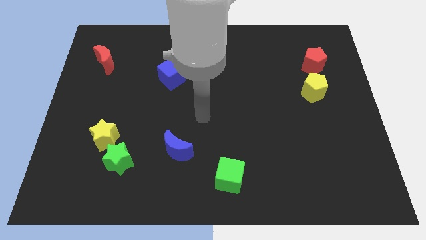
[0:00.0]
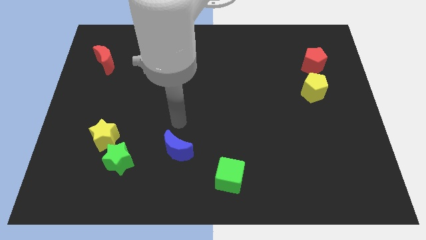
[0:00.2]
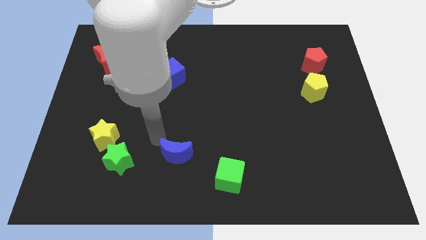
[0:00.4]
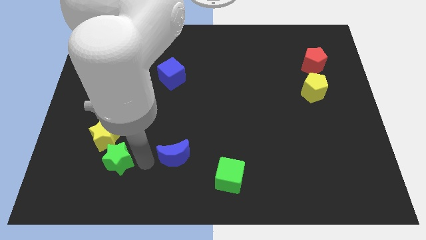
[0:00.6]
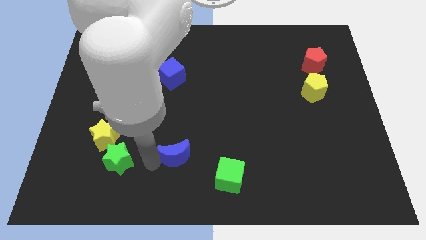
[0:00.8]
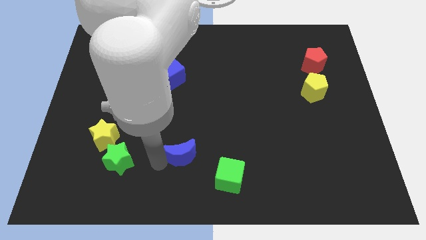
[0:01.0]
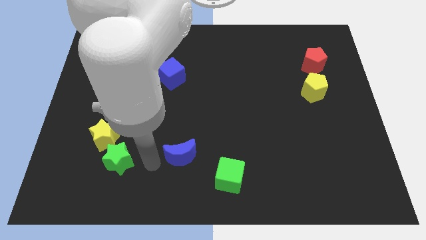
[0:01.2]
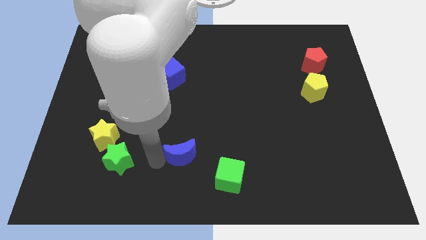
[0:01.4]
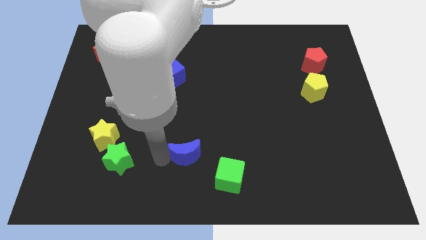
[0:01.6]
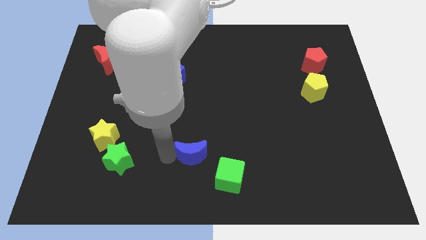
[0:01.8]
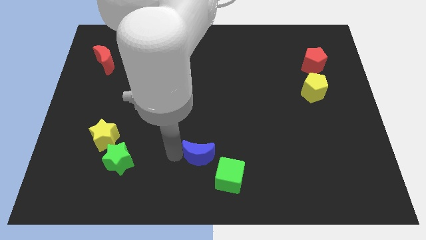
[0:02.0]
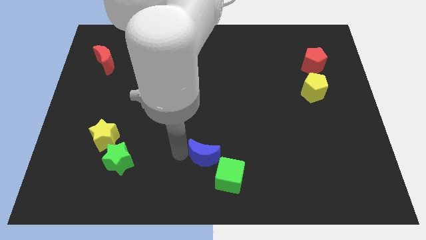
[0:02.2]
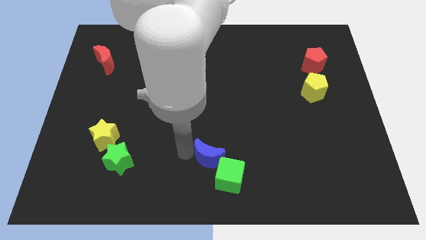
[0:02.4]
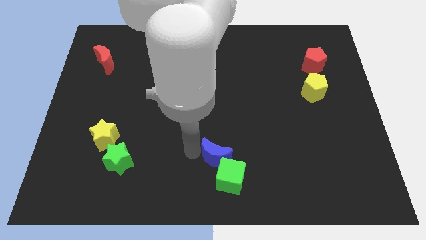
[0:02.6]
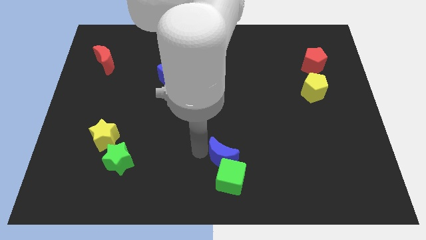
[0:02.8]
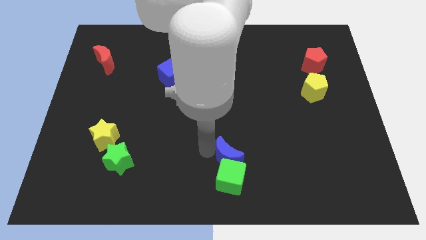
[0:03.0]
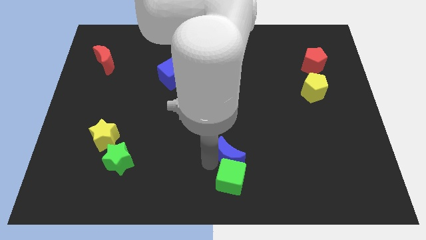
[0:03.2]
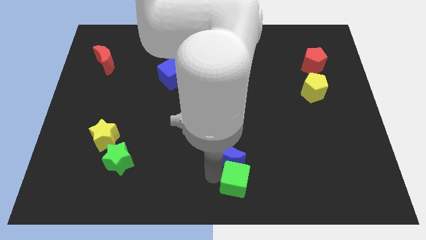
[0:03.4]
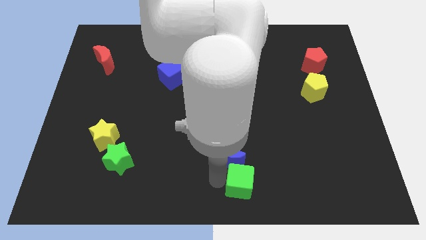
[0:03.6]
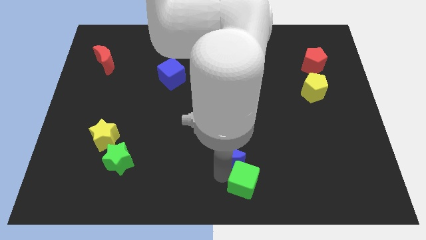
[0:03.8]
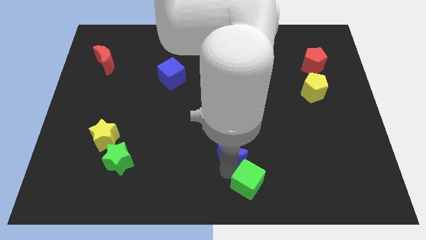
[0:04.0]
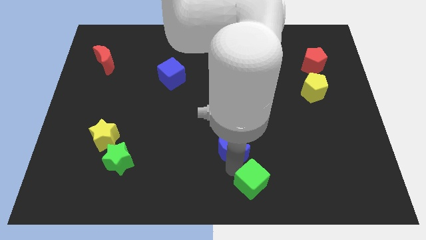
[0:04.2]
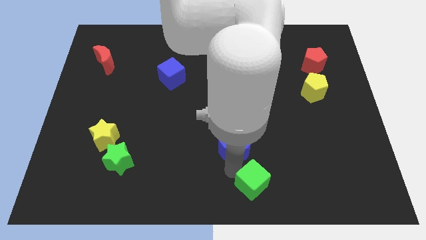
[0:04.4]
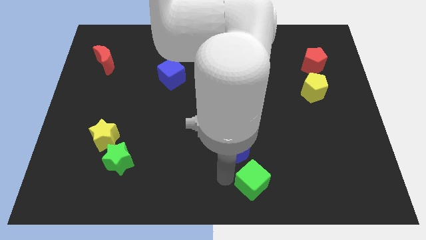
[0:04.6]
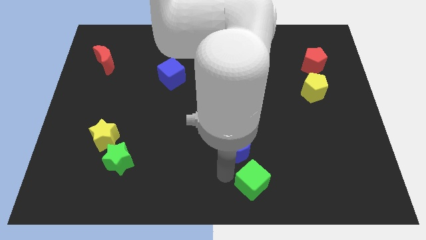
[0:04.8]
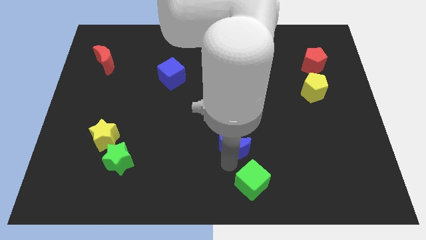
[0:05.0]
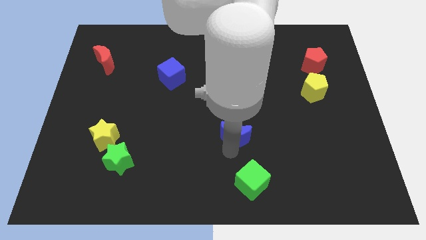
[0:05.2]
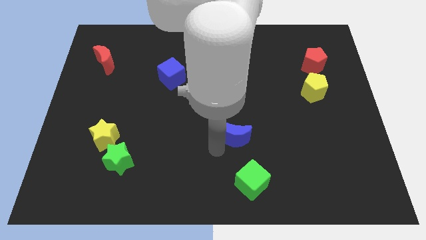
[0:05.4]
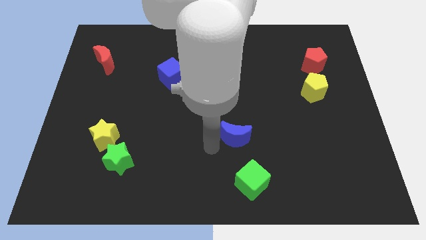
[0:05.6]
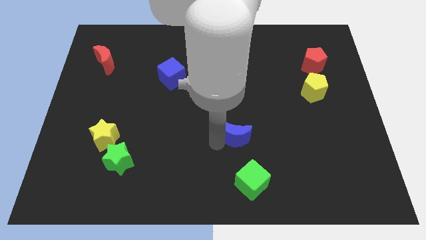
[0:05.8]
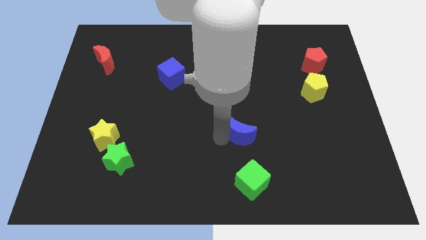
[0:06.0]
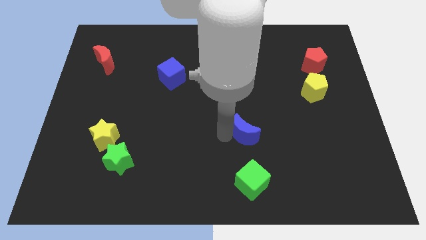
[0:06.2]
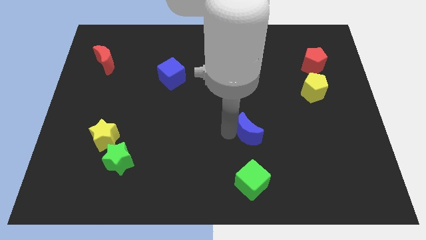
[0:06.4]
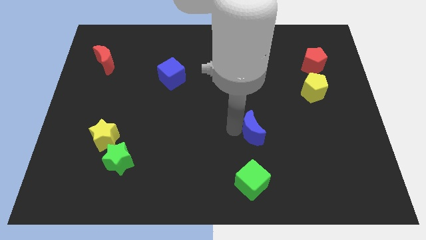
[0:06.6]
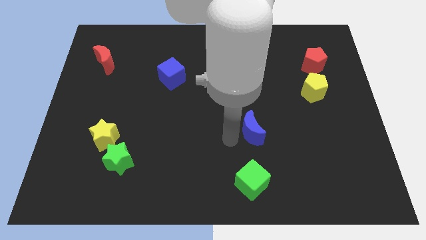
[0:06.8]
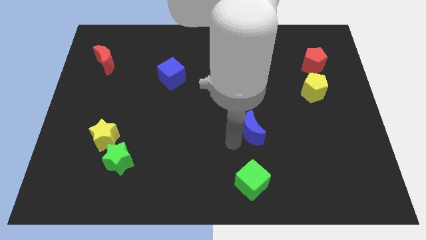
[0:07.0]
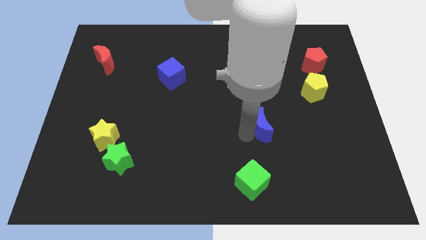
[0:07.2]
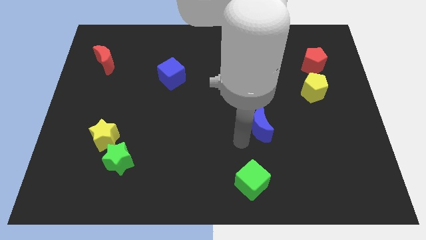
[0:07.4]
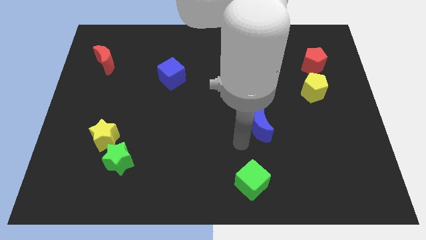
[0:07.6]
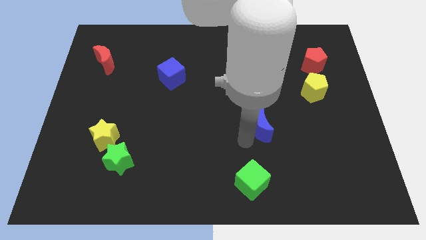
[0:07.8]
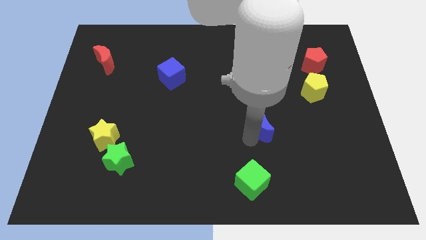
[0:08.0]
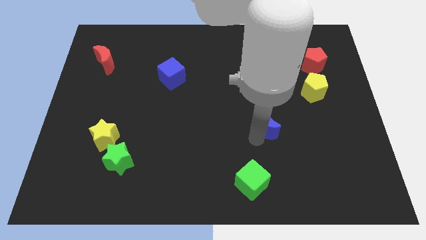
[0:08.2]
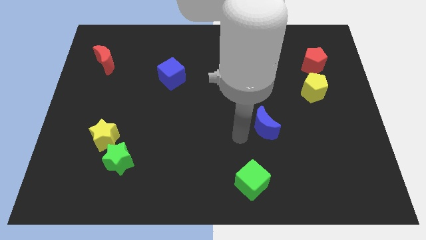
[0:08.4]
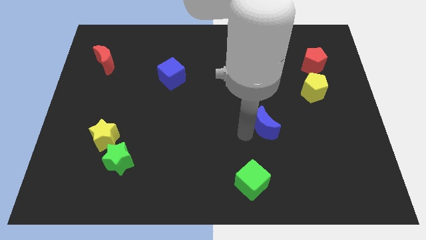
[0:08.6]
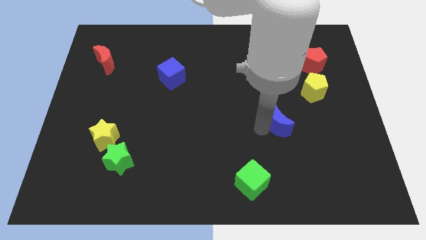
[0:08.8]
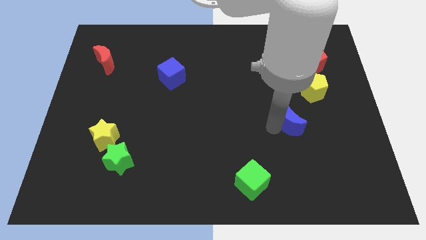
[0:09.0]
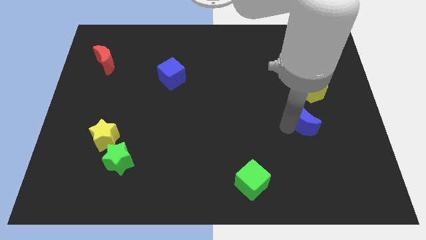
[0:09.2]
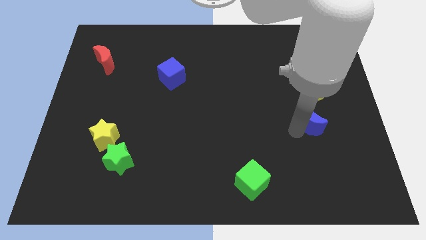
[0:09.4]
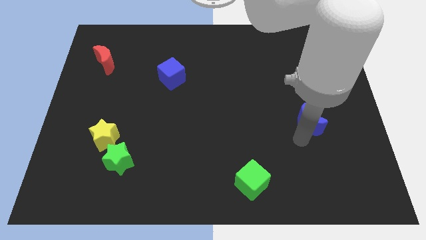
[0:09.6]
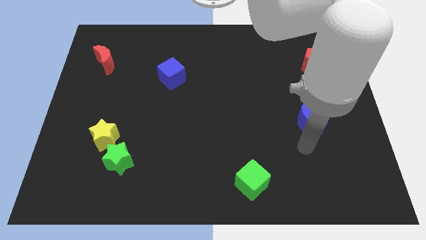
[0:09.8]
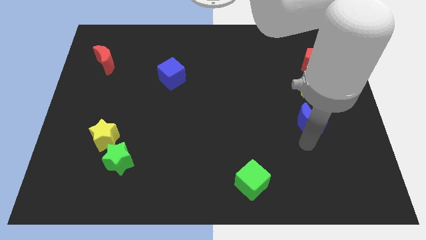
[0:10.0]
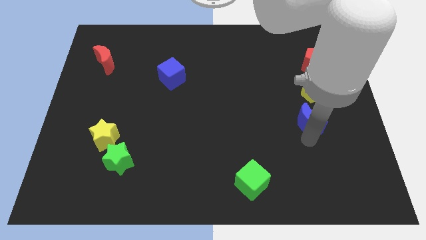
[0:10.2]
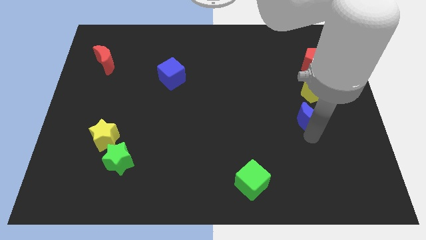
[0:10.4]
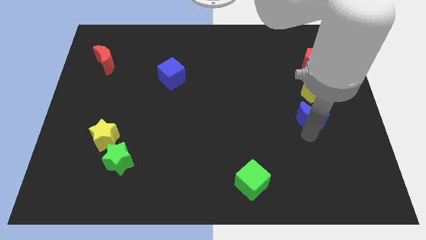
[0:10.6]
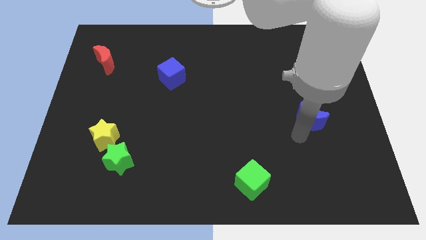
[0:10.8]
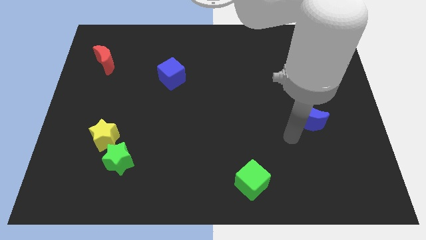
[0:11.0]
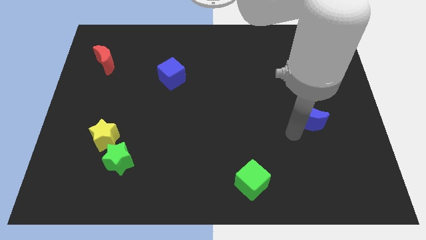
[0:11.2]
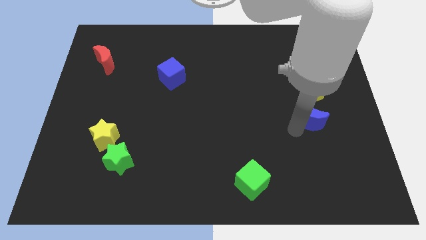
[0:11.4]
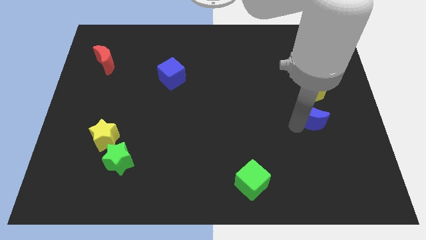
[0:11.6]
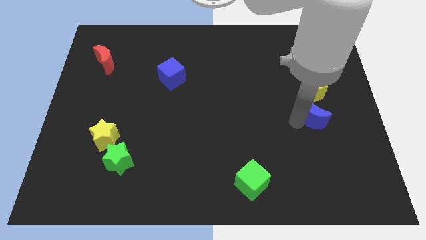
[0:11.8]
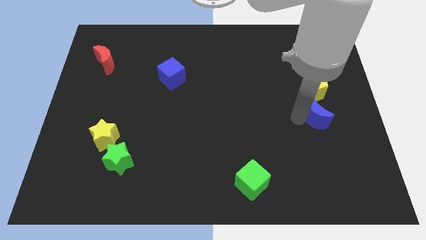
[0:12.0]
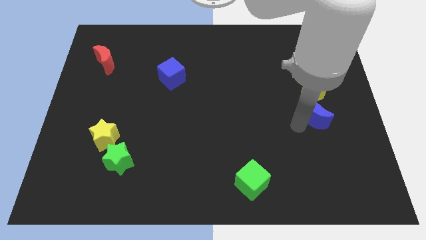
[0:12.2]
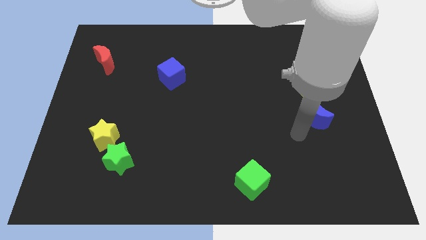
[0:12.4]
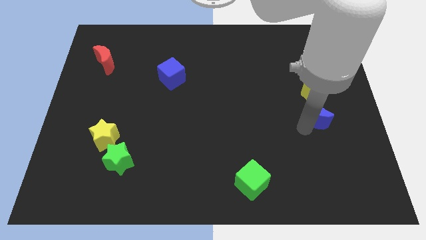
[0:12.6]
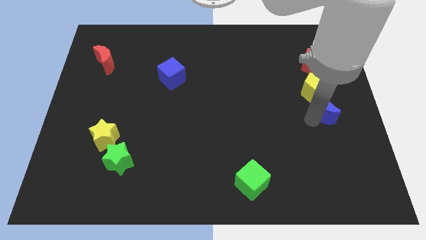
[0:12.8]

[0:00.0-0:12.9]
push the blue moon to the right side
